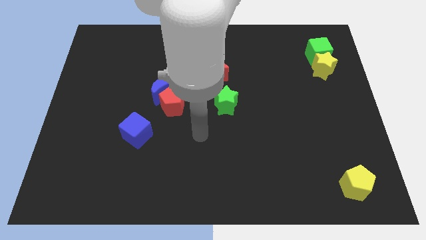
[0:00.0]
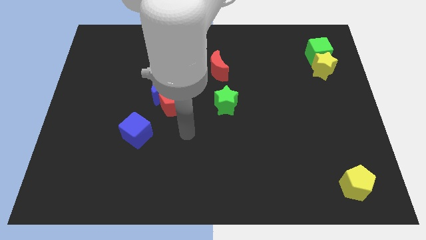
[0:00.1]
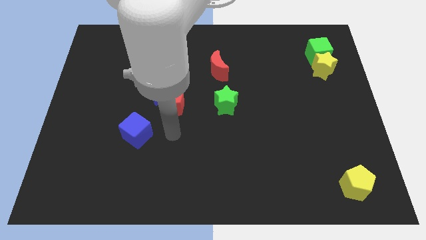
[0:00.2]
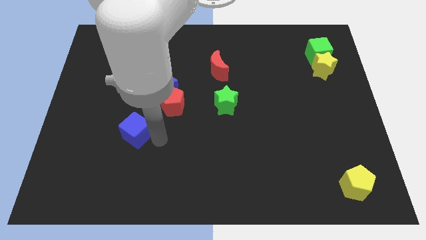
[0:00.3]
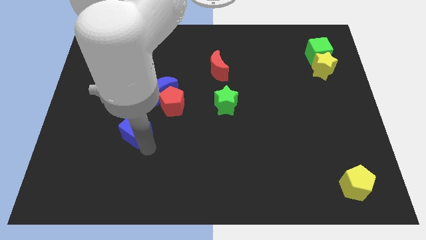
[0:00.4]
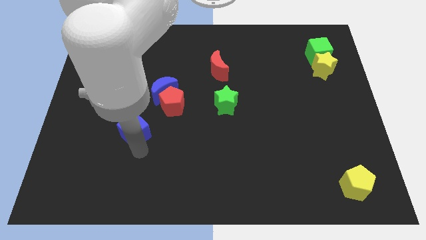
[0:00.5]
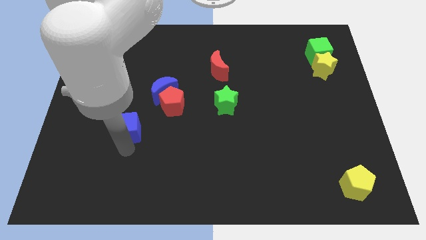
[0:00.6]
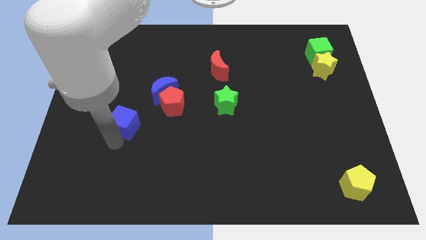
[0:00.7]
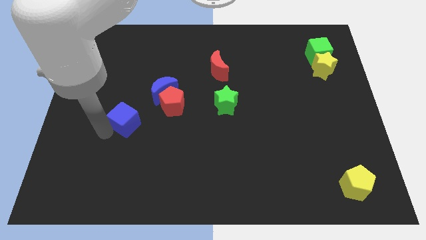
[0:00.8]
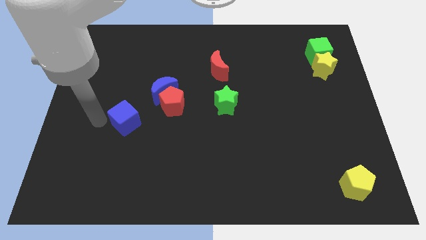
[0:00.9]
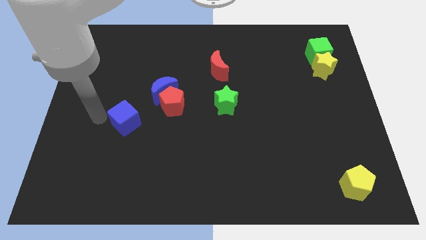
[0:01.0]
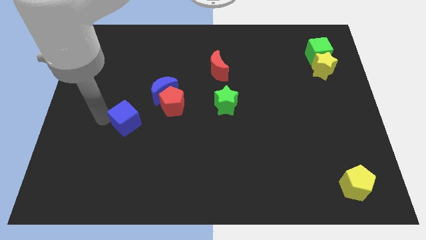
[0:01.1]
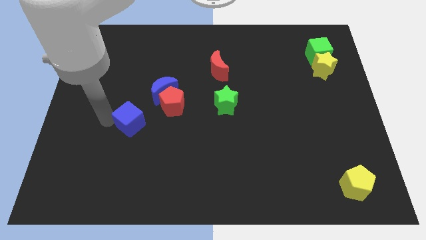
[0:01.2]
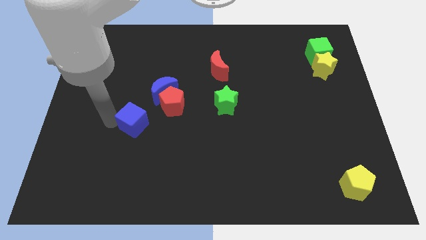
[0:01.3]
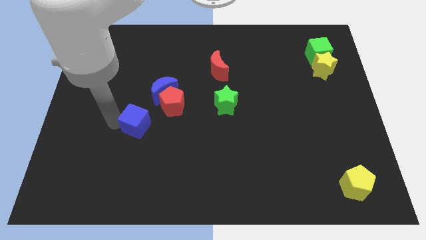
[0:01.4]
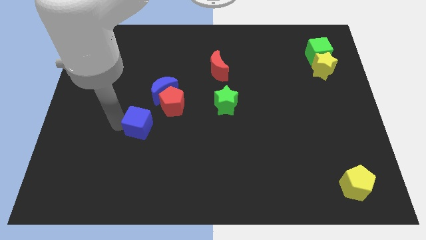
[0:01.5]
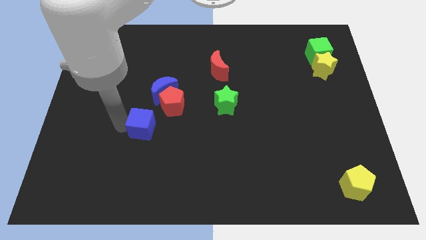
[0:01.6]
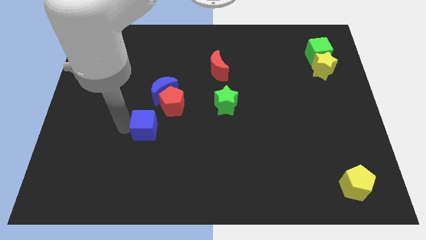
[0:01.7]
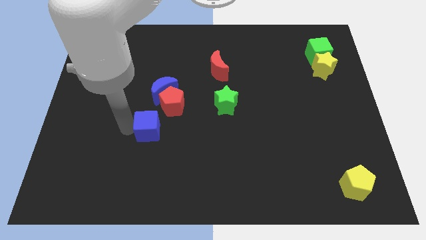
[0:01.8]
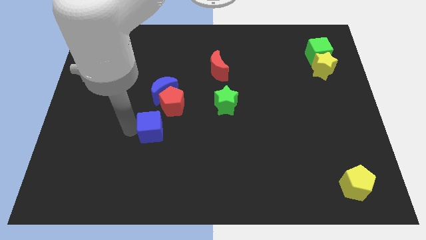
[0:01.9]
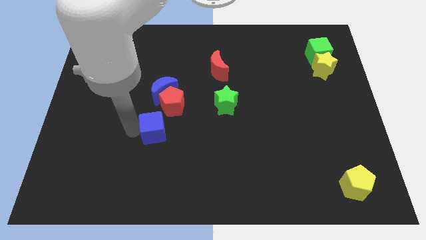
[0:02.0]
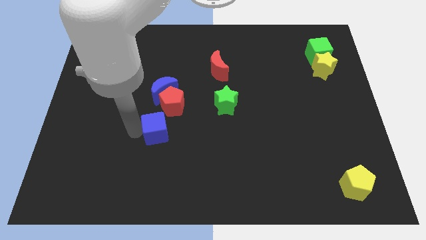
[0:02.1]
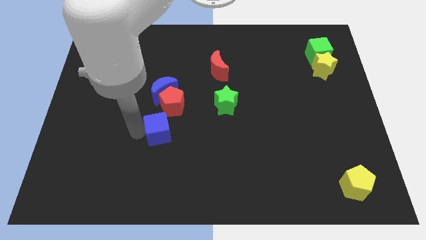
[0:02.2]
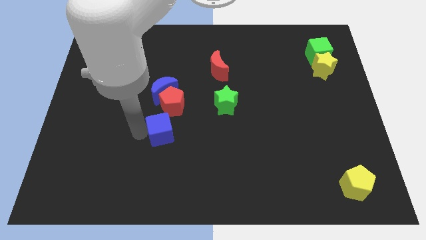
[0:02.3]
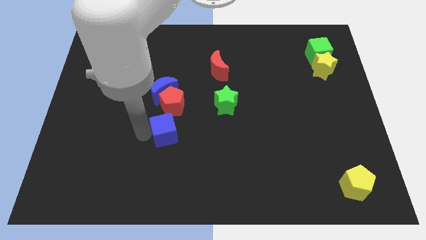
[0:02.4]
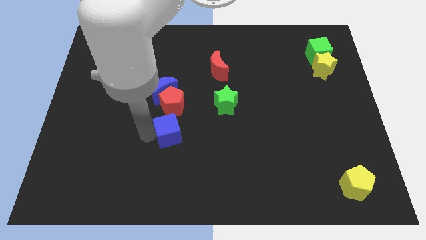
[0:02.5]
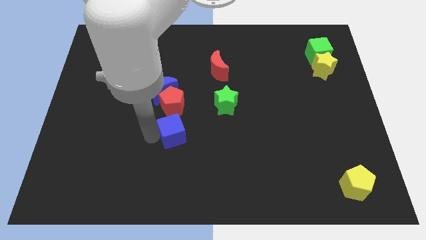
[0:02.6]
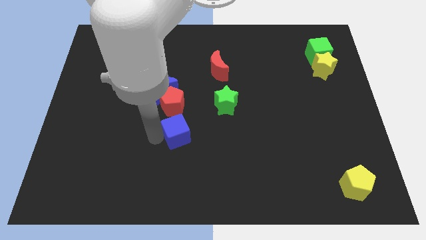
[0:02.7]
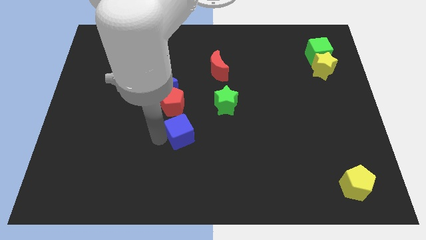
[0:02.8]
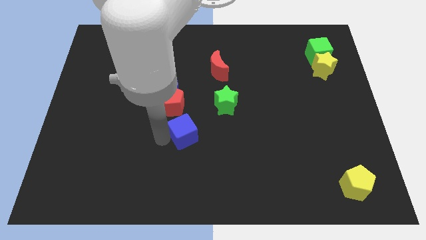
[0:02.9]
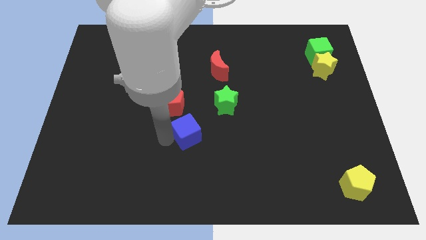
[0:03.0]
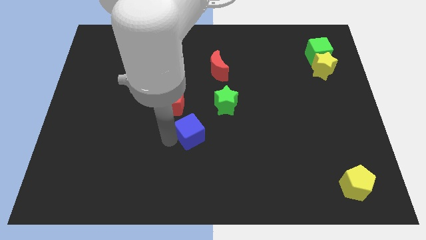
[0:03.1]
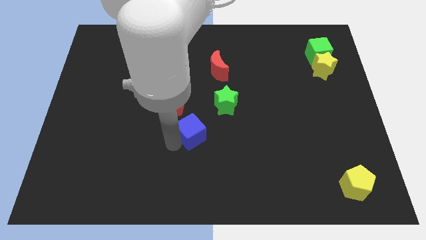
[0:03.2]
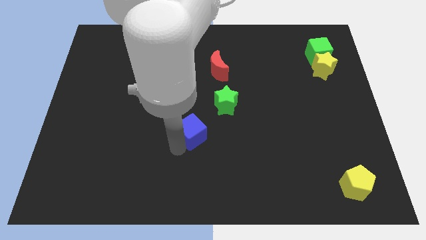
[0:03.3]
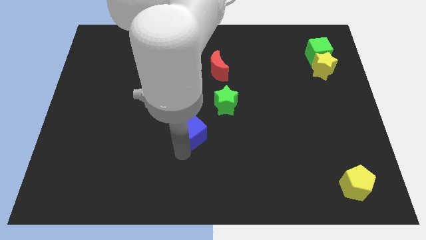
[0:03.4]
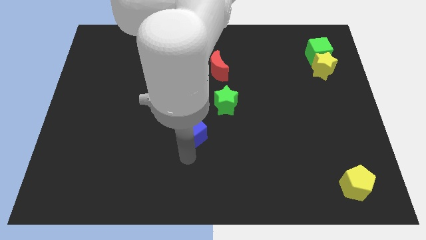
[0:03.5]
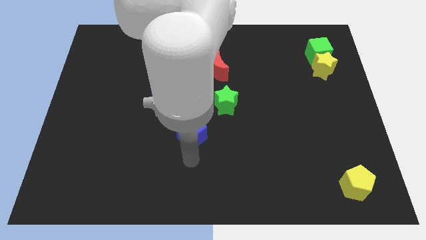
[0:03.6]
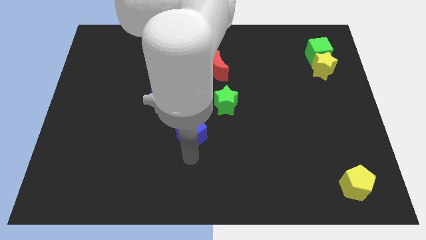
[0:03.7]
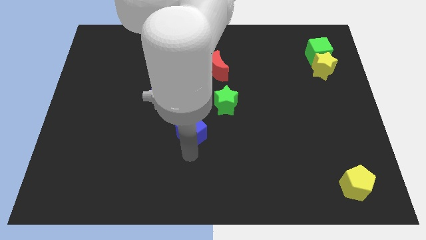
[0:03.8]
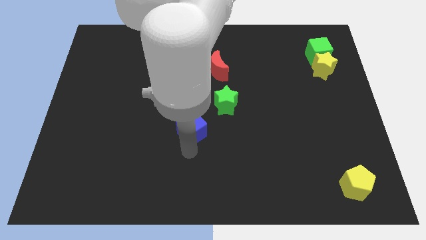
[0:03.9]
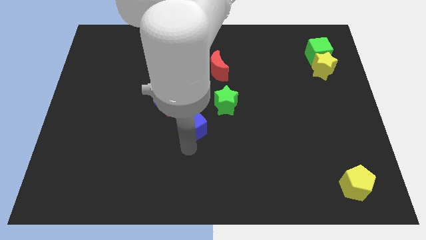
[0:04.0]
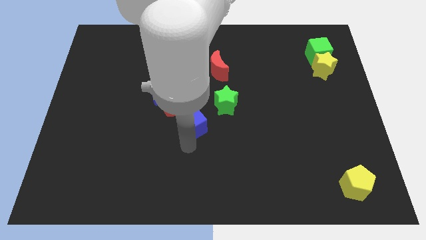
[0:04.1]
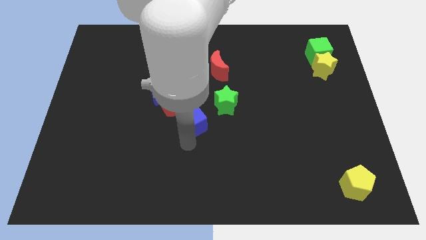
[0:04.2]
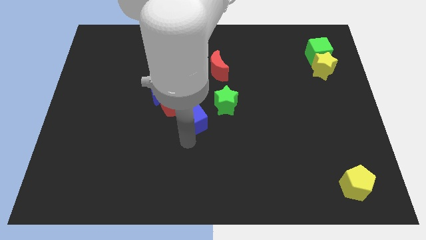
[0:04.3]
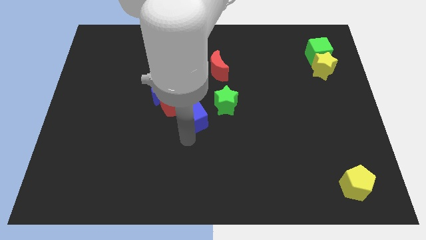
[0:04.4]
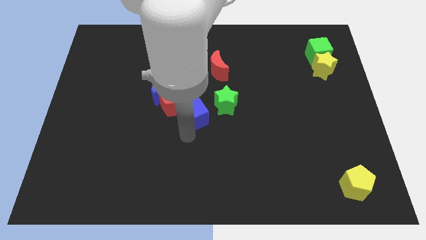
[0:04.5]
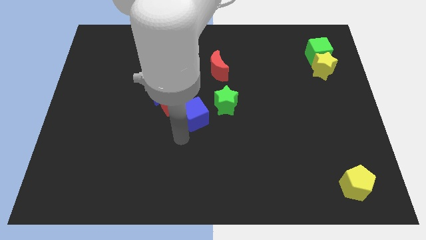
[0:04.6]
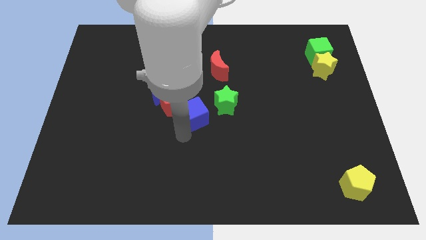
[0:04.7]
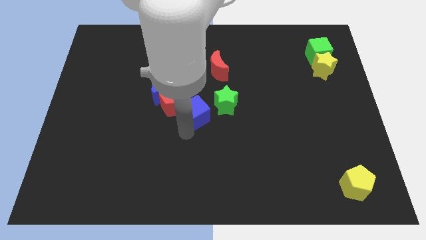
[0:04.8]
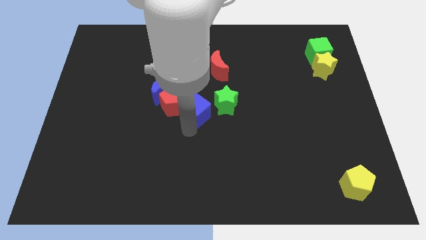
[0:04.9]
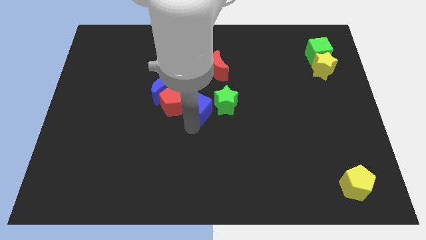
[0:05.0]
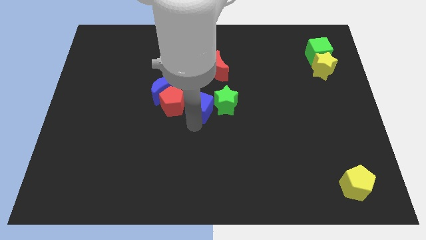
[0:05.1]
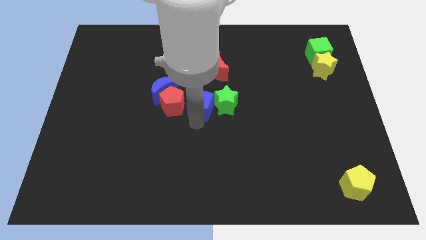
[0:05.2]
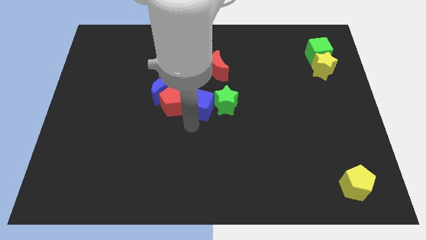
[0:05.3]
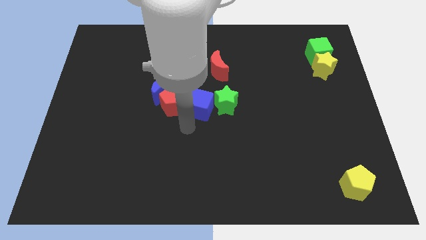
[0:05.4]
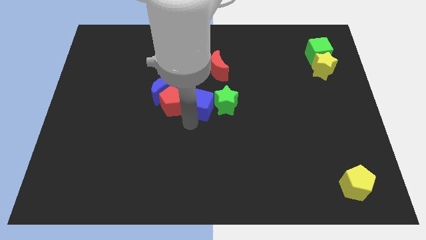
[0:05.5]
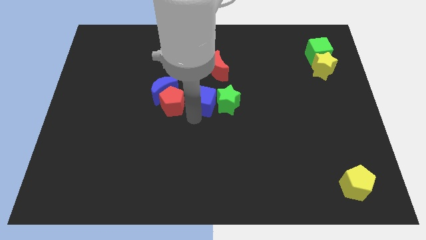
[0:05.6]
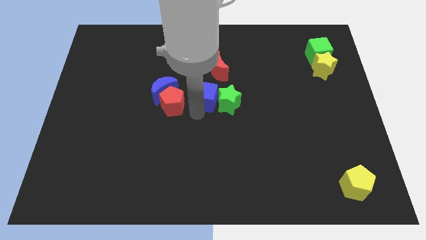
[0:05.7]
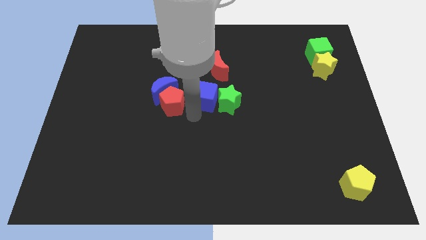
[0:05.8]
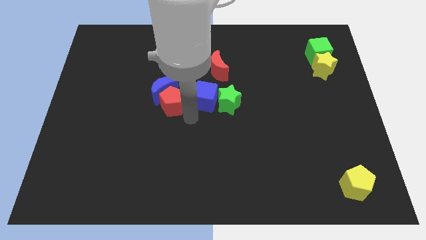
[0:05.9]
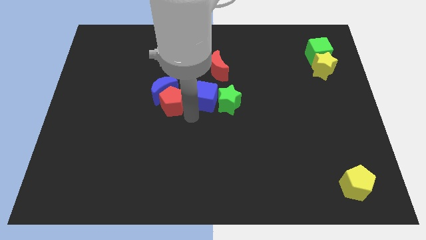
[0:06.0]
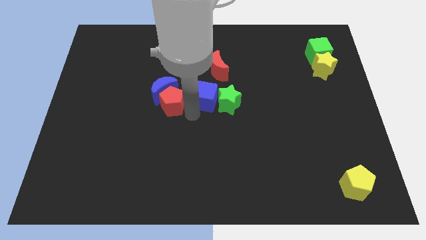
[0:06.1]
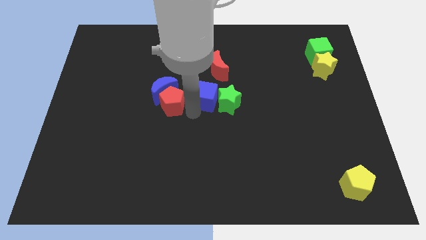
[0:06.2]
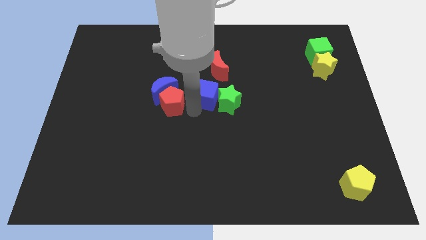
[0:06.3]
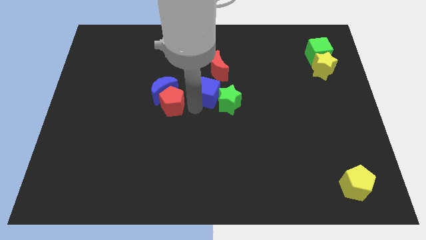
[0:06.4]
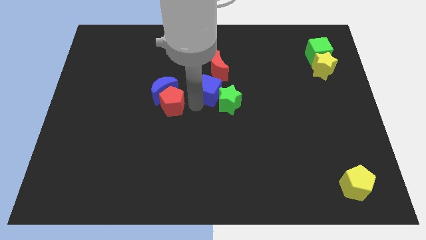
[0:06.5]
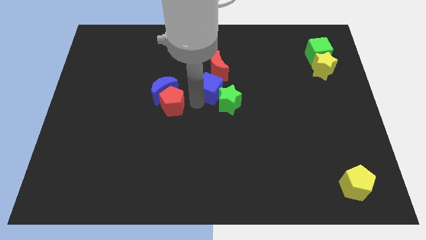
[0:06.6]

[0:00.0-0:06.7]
slide the blue cube diagonally up and right

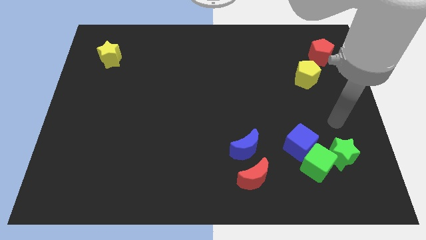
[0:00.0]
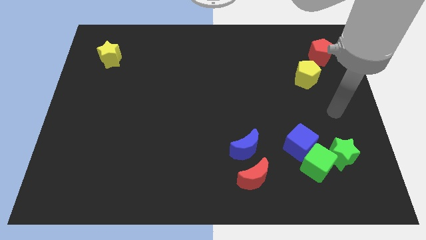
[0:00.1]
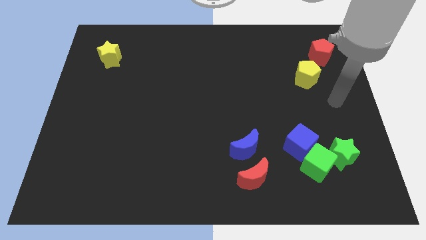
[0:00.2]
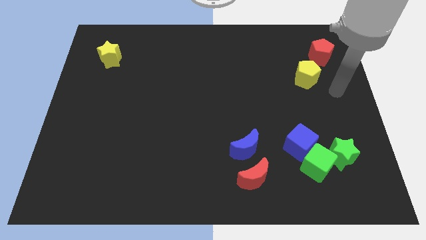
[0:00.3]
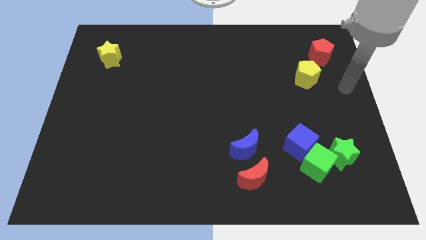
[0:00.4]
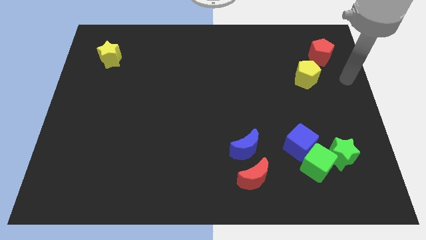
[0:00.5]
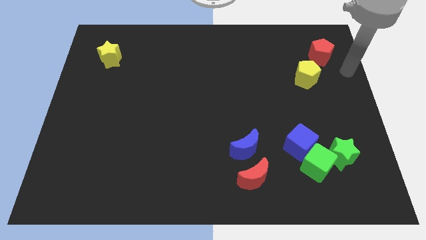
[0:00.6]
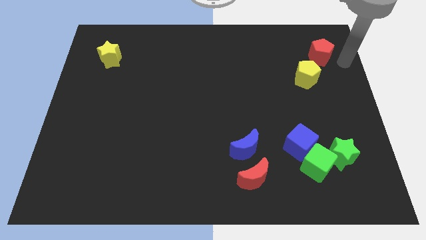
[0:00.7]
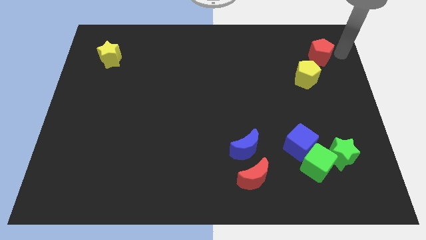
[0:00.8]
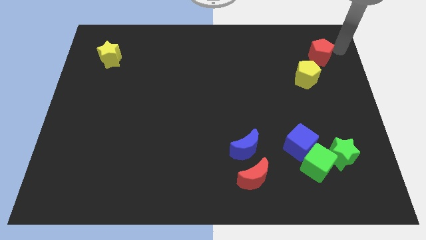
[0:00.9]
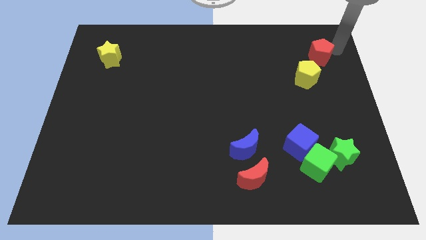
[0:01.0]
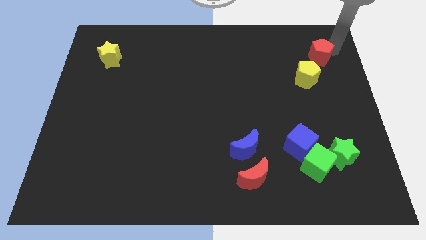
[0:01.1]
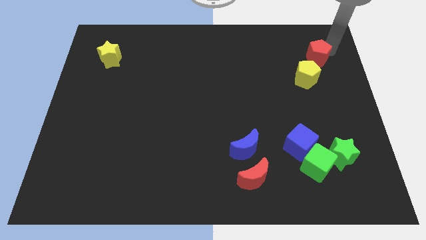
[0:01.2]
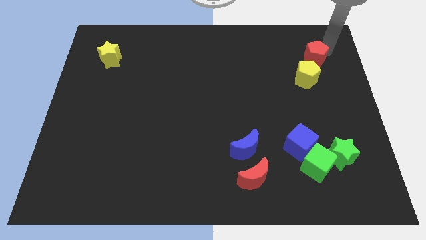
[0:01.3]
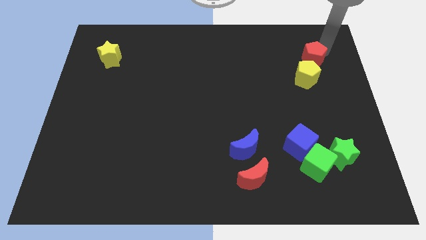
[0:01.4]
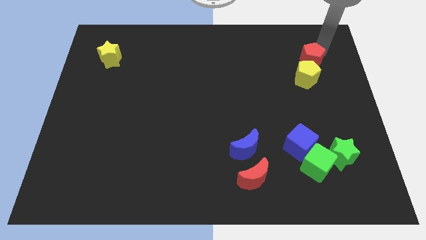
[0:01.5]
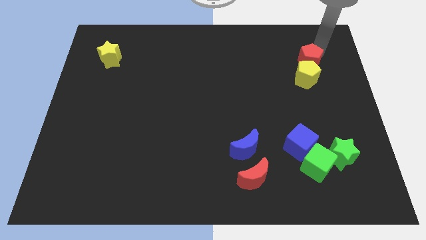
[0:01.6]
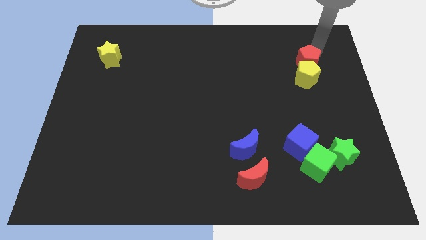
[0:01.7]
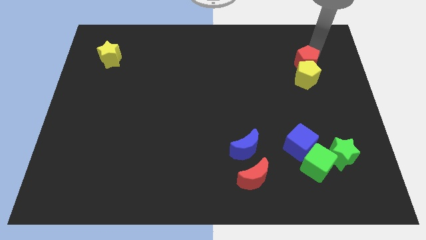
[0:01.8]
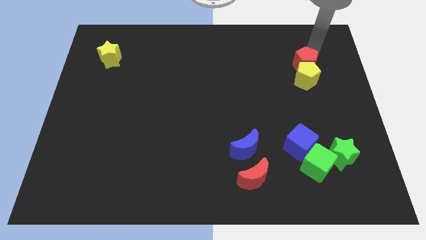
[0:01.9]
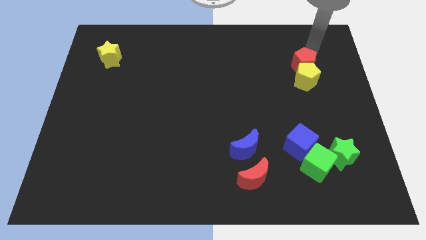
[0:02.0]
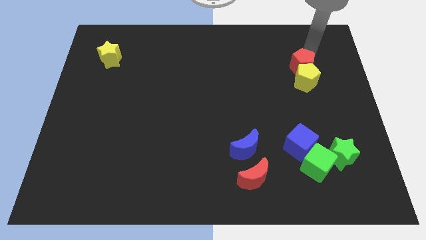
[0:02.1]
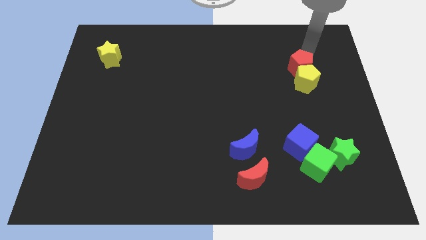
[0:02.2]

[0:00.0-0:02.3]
slide the red pentagon down and left somewhat
